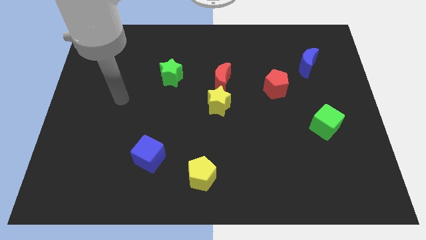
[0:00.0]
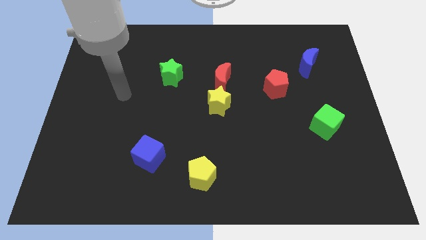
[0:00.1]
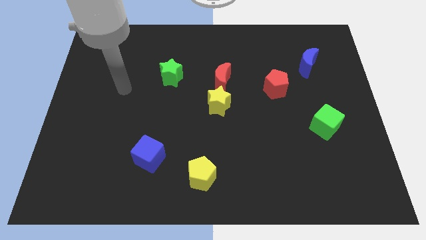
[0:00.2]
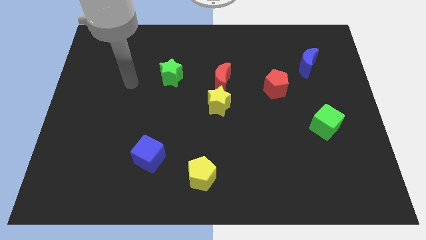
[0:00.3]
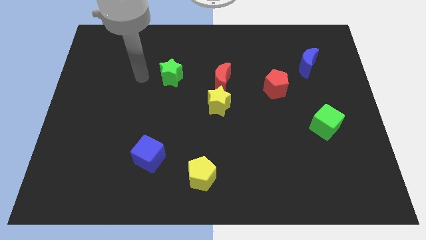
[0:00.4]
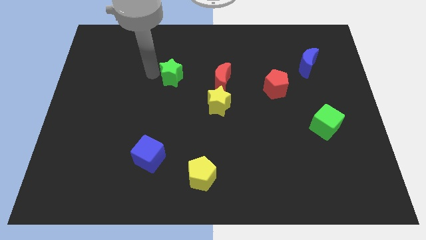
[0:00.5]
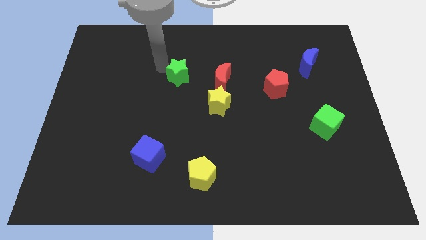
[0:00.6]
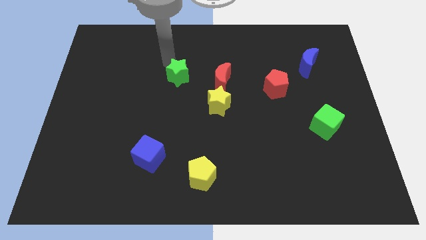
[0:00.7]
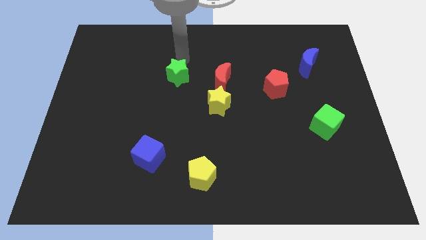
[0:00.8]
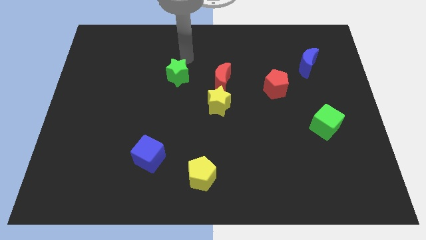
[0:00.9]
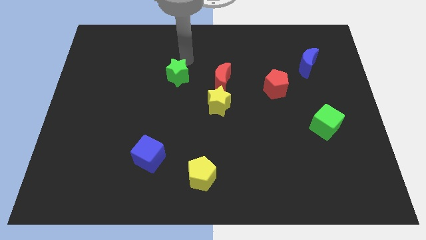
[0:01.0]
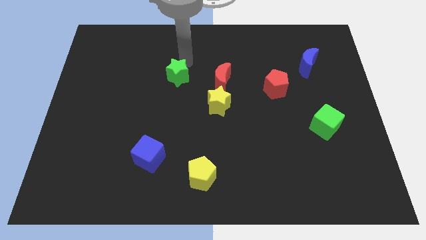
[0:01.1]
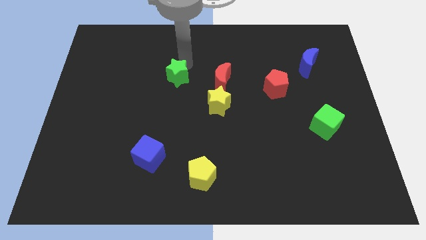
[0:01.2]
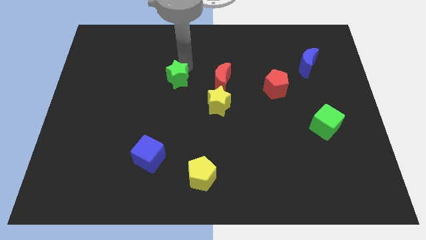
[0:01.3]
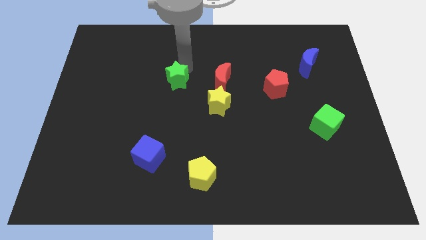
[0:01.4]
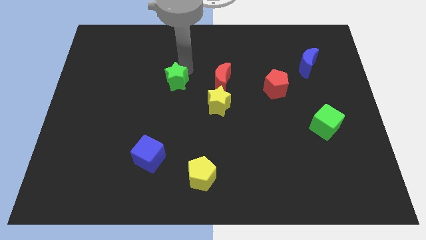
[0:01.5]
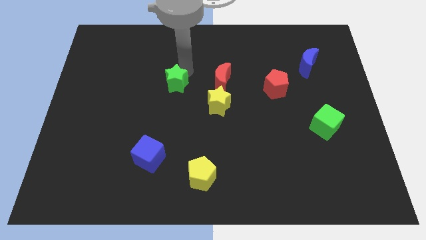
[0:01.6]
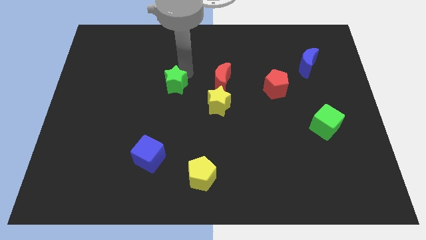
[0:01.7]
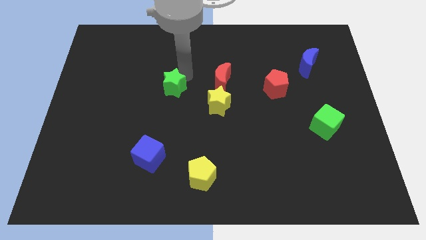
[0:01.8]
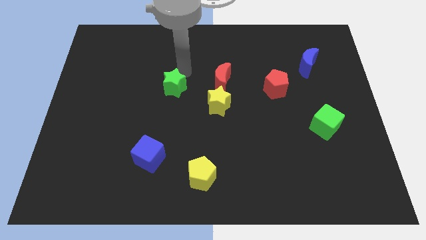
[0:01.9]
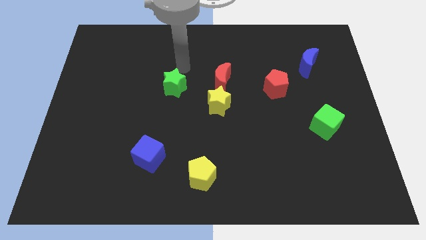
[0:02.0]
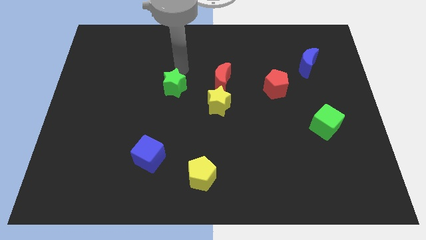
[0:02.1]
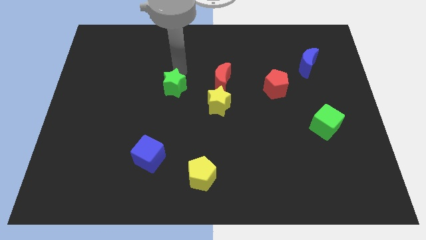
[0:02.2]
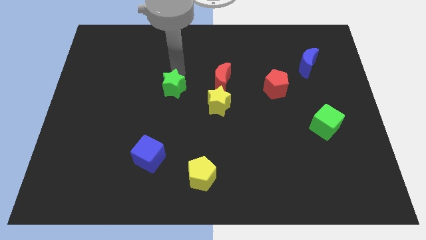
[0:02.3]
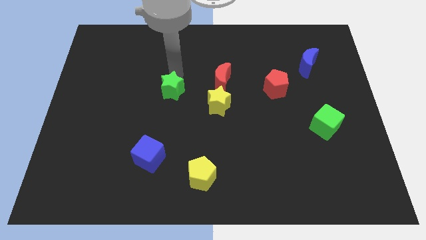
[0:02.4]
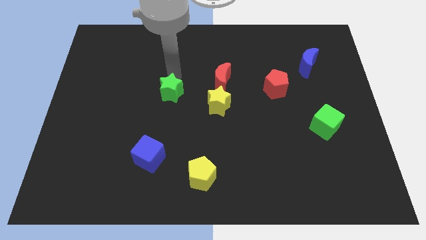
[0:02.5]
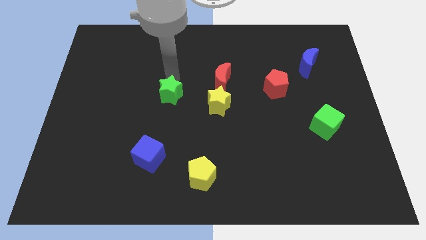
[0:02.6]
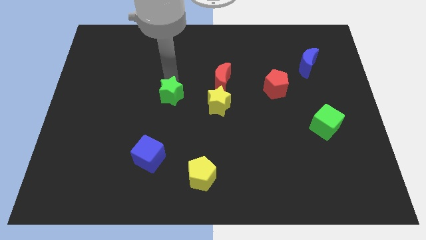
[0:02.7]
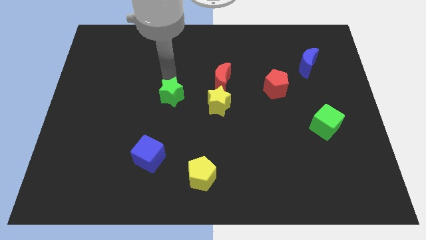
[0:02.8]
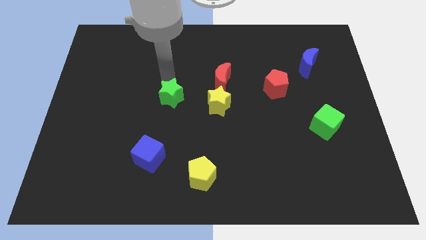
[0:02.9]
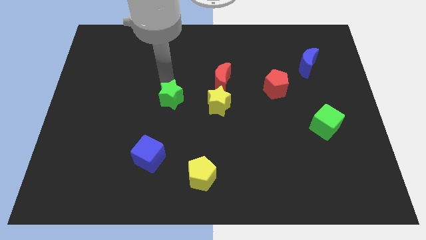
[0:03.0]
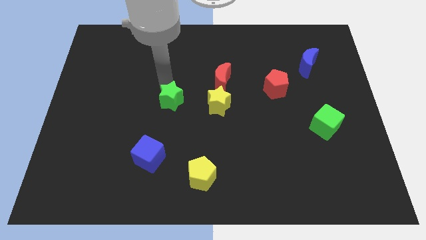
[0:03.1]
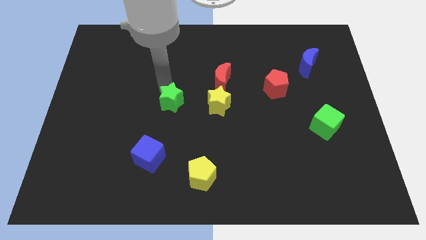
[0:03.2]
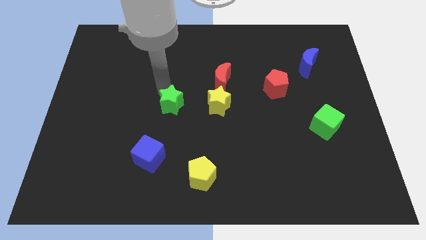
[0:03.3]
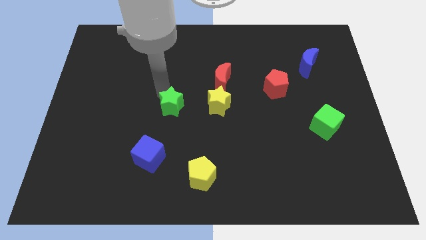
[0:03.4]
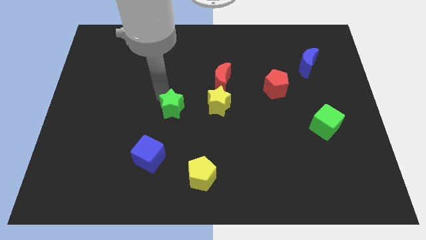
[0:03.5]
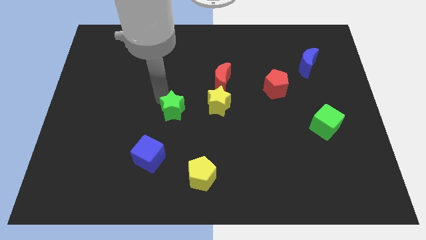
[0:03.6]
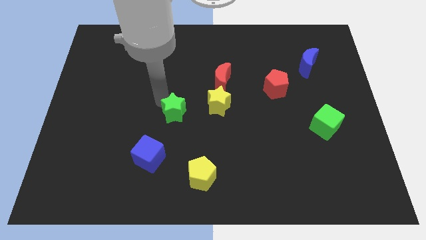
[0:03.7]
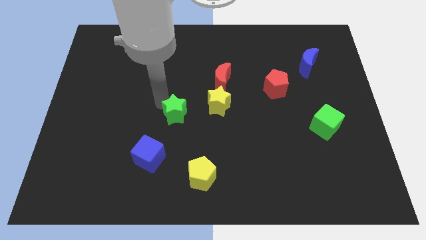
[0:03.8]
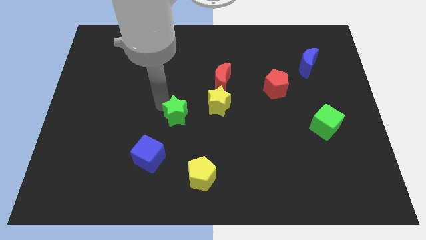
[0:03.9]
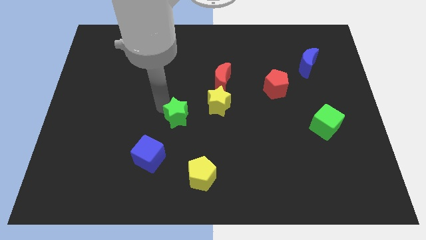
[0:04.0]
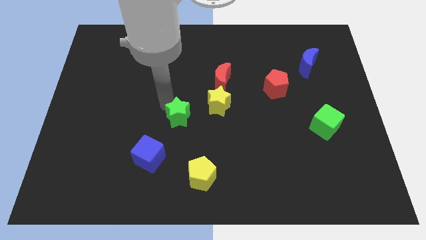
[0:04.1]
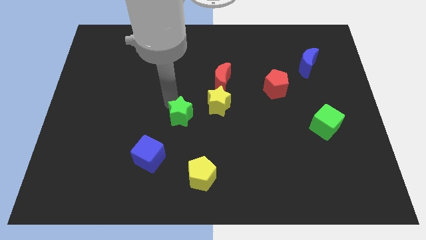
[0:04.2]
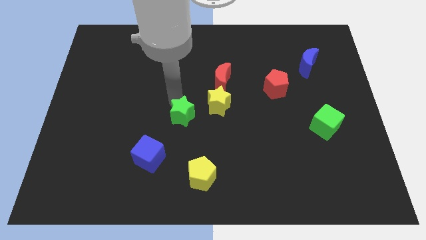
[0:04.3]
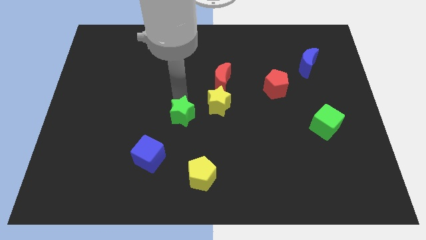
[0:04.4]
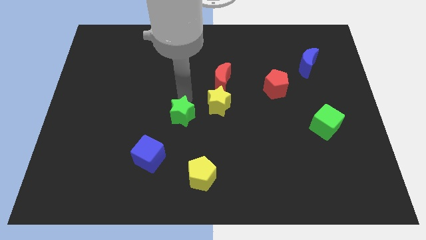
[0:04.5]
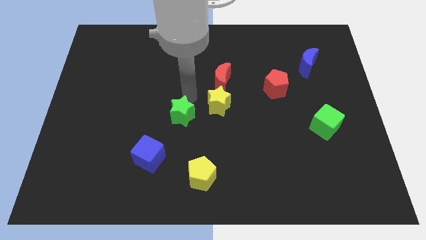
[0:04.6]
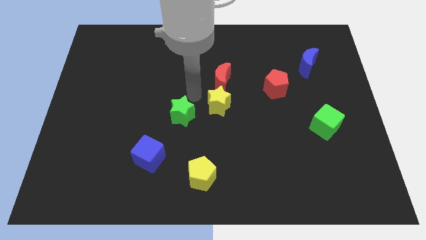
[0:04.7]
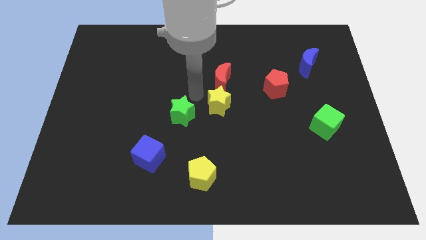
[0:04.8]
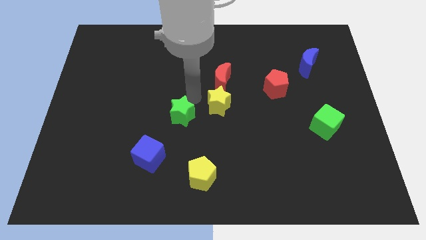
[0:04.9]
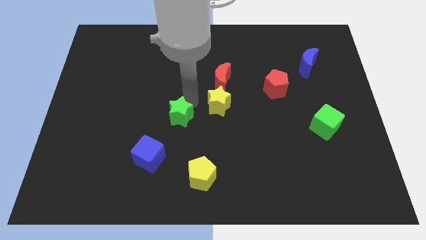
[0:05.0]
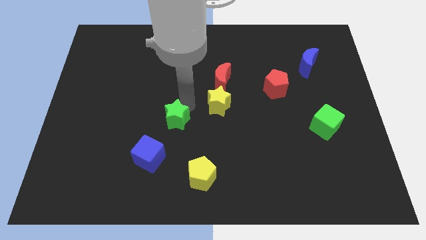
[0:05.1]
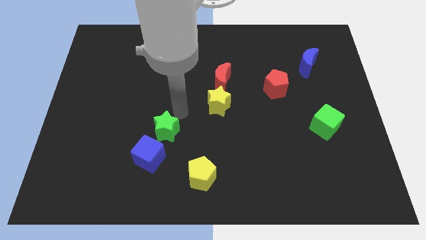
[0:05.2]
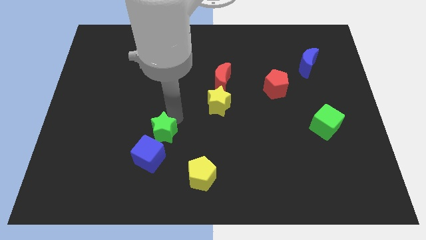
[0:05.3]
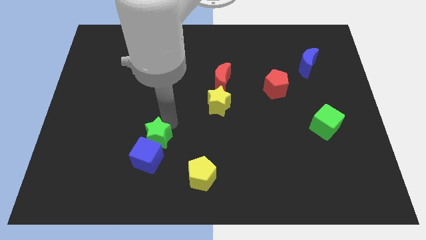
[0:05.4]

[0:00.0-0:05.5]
move the green star to the blue cube

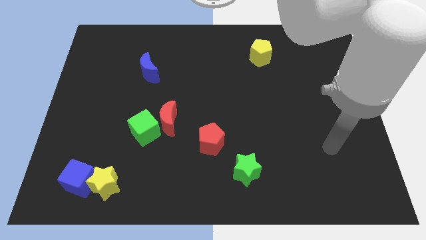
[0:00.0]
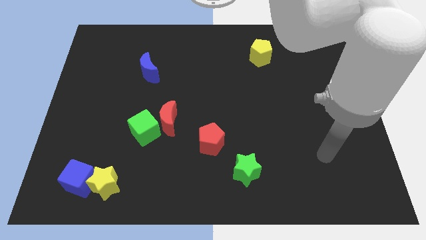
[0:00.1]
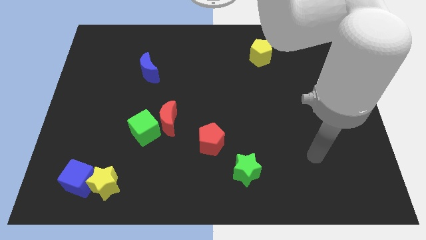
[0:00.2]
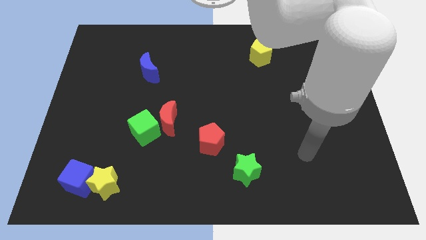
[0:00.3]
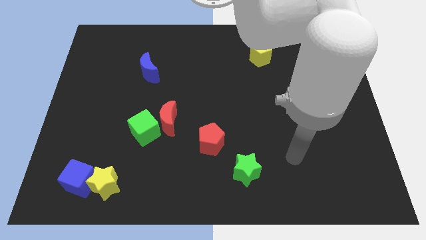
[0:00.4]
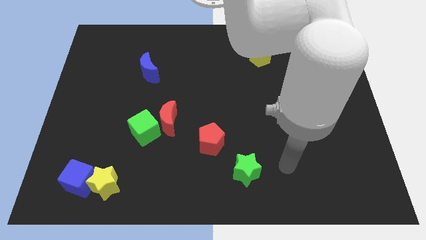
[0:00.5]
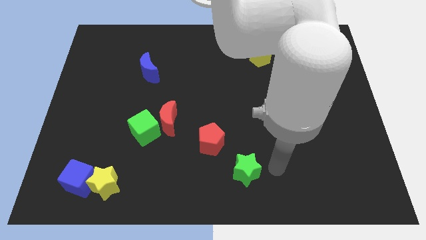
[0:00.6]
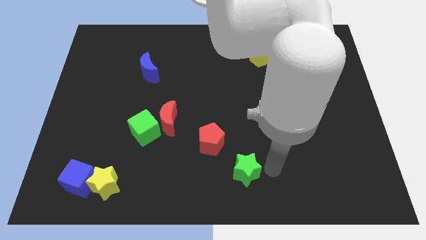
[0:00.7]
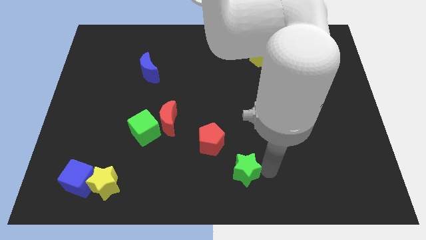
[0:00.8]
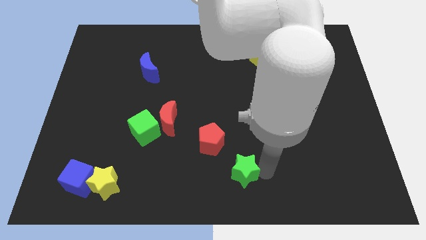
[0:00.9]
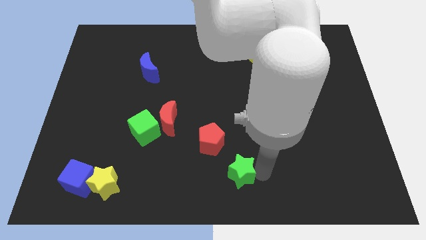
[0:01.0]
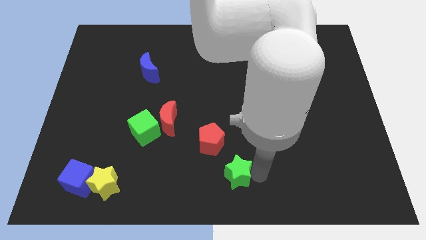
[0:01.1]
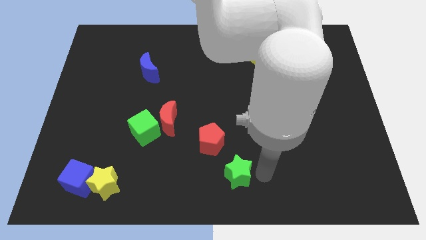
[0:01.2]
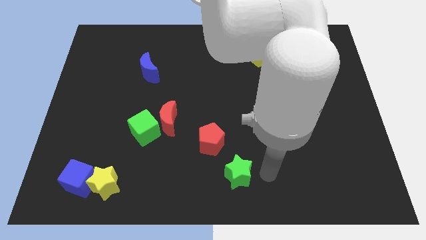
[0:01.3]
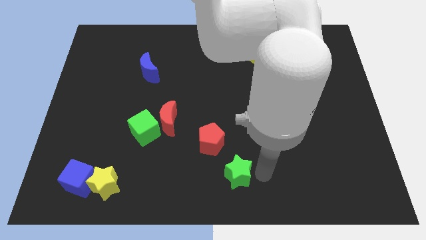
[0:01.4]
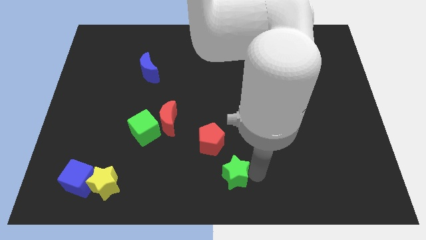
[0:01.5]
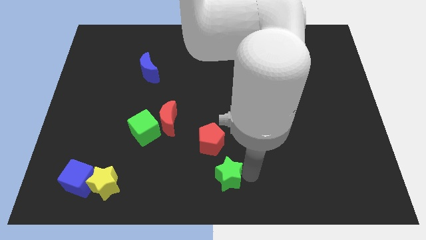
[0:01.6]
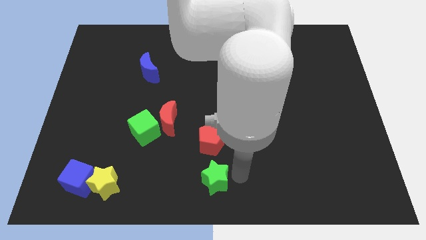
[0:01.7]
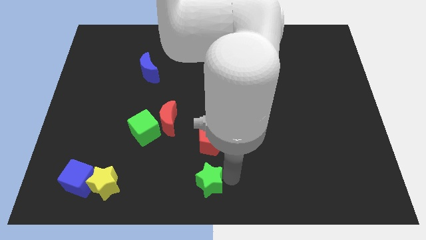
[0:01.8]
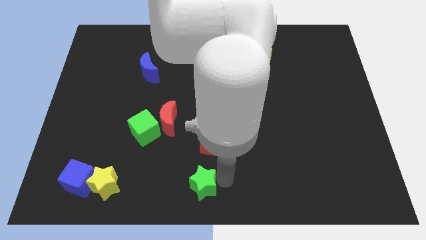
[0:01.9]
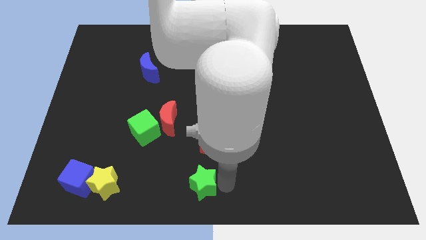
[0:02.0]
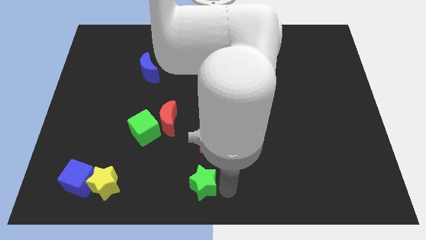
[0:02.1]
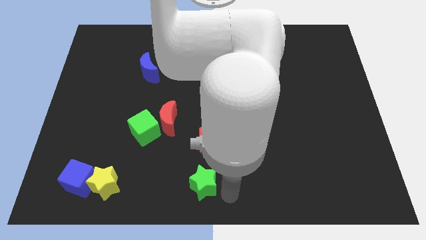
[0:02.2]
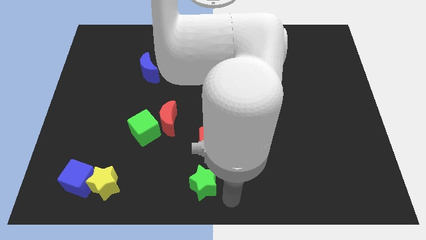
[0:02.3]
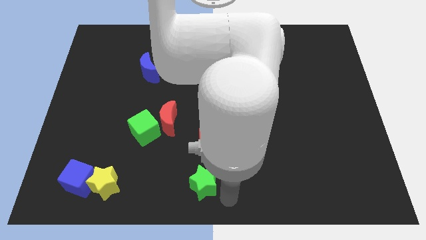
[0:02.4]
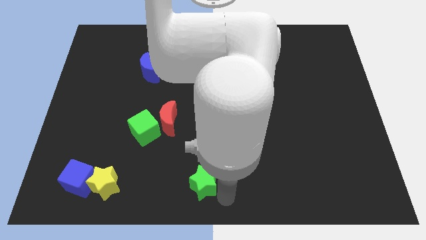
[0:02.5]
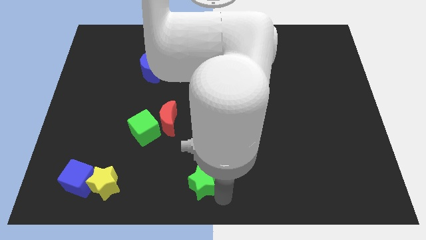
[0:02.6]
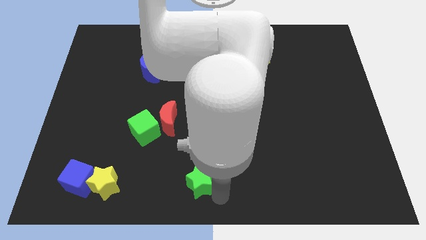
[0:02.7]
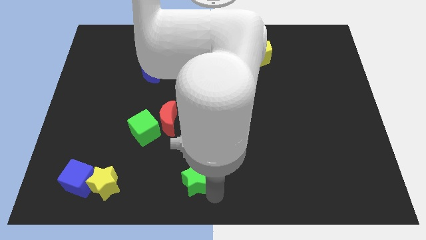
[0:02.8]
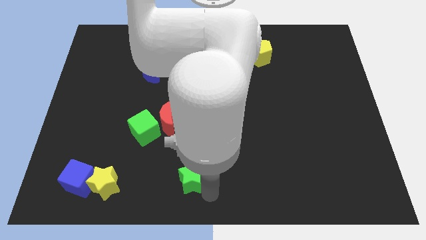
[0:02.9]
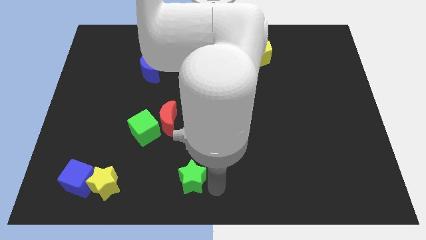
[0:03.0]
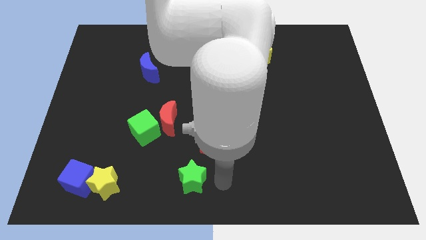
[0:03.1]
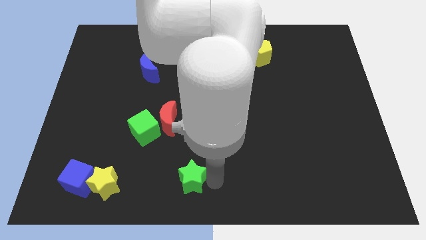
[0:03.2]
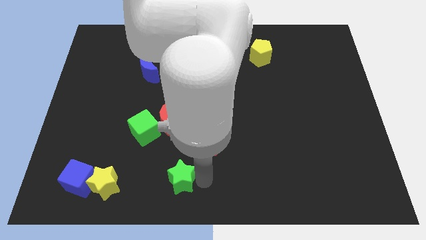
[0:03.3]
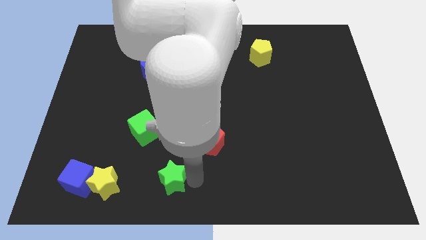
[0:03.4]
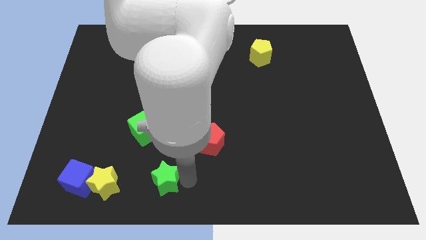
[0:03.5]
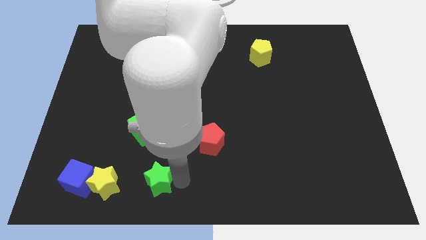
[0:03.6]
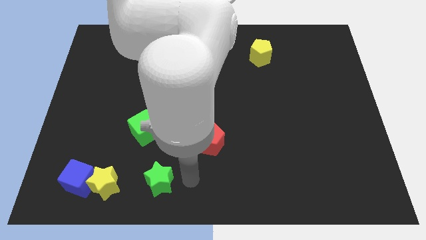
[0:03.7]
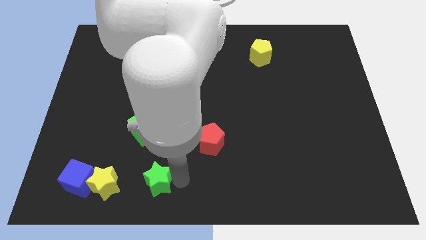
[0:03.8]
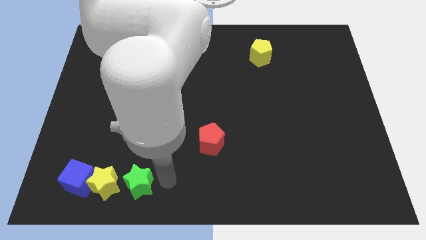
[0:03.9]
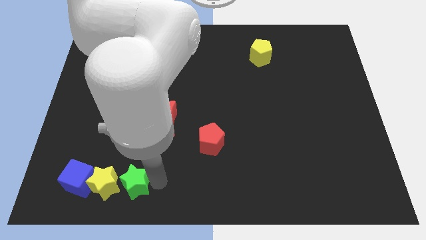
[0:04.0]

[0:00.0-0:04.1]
put the green star close to the yellow star
